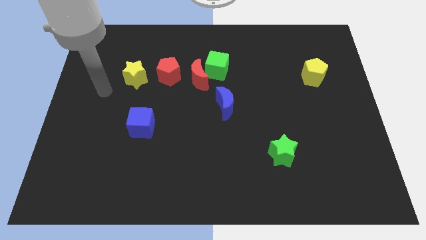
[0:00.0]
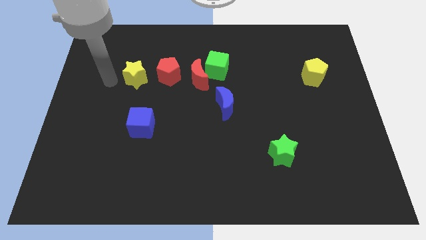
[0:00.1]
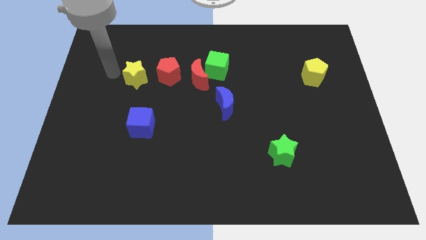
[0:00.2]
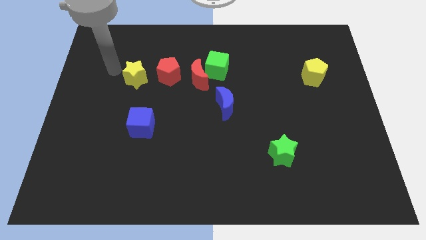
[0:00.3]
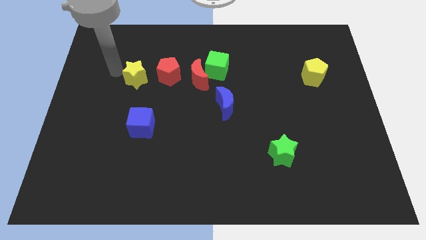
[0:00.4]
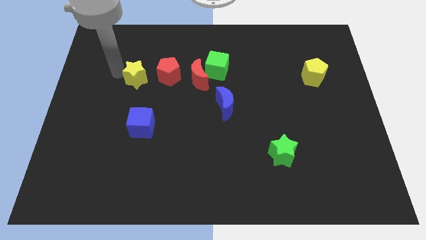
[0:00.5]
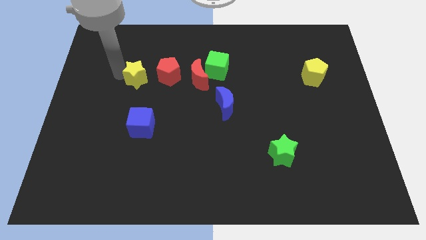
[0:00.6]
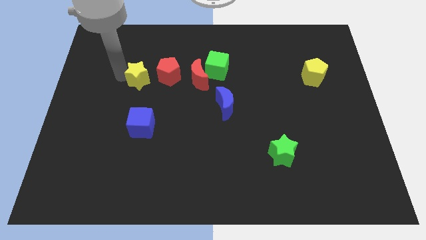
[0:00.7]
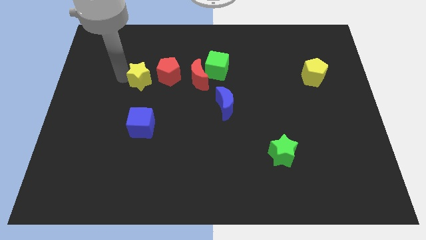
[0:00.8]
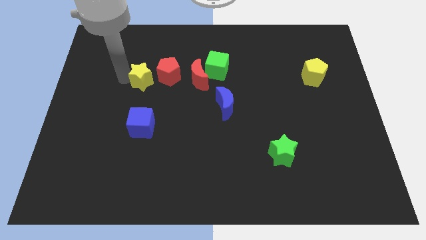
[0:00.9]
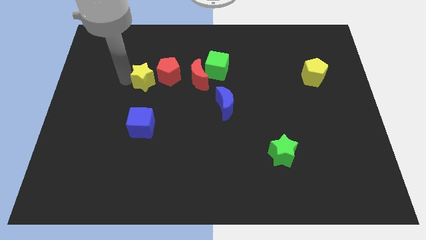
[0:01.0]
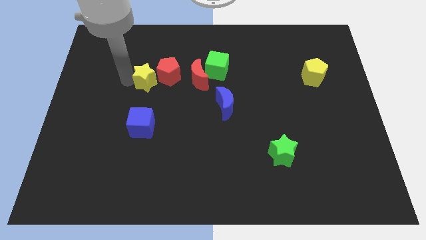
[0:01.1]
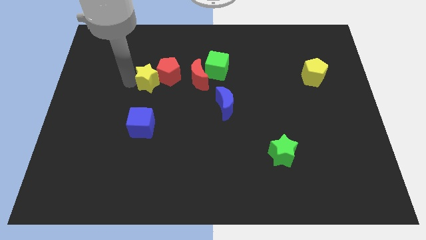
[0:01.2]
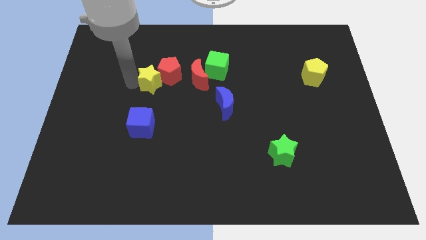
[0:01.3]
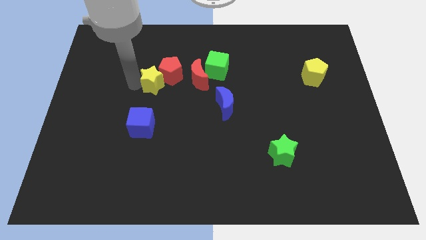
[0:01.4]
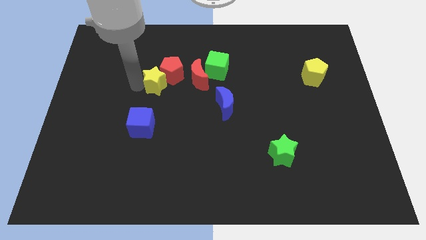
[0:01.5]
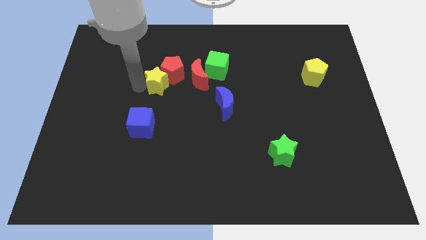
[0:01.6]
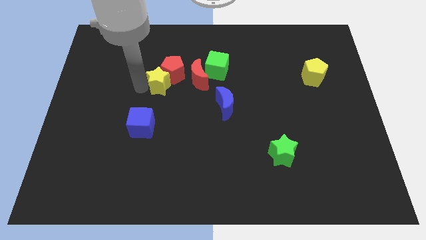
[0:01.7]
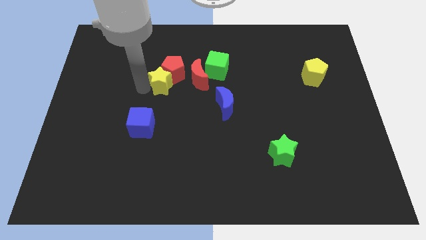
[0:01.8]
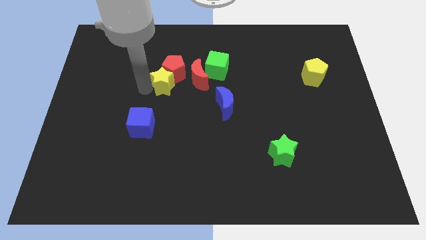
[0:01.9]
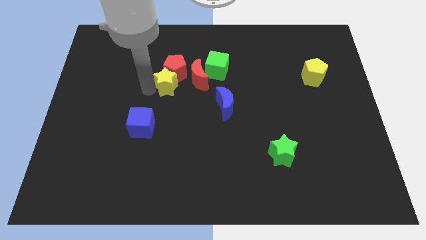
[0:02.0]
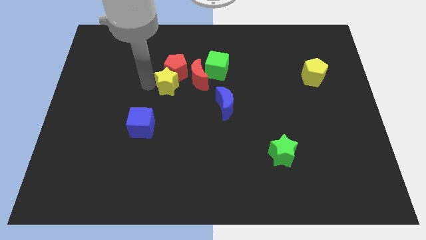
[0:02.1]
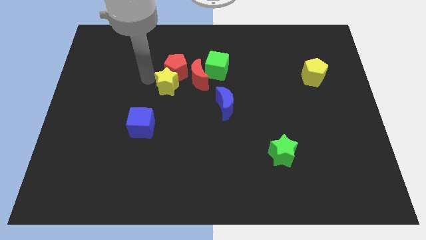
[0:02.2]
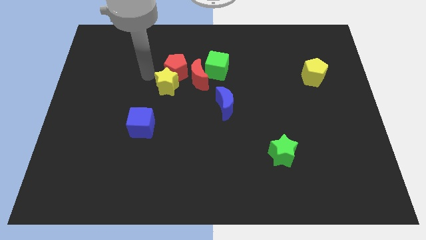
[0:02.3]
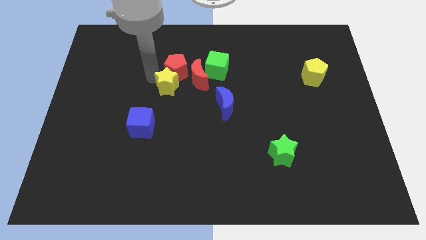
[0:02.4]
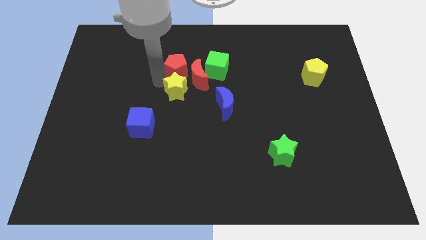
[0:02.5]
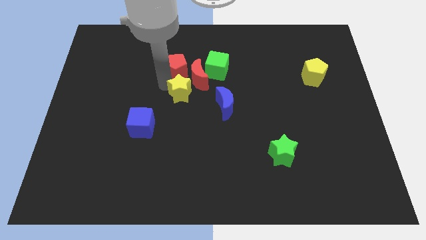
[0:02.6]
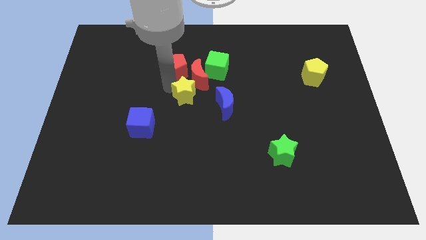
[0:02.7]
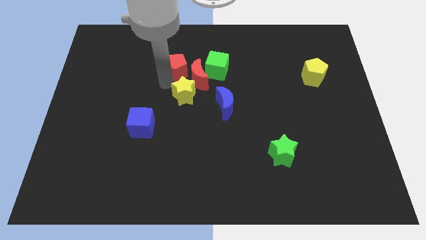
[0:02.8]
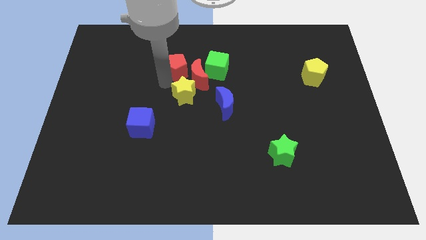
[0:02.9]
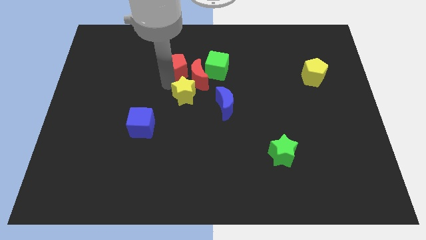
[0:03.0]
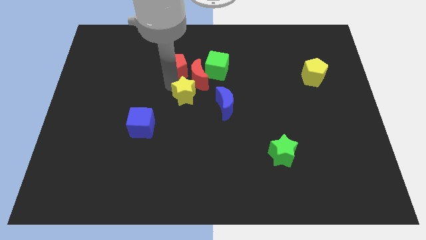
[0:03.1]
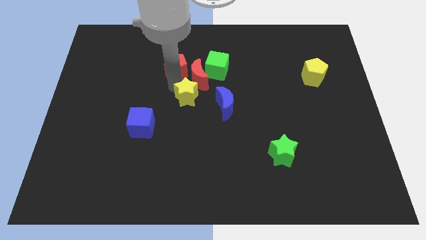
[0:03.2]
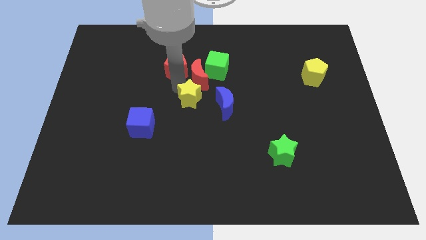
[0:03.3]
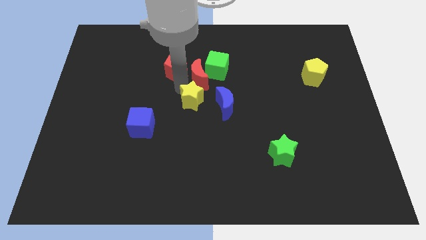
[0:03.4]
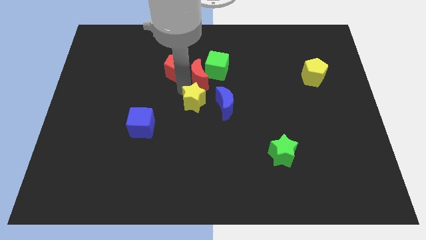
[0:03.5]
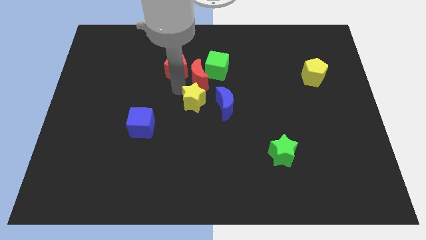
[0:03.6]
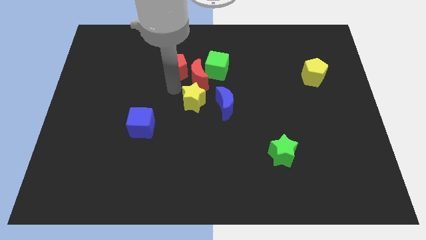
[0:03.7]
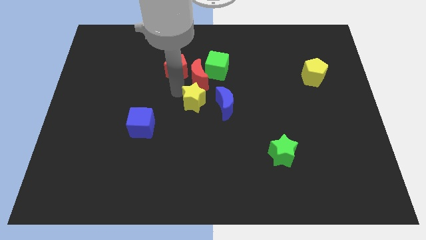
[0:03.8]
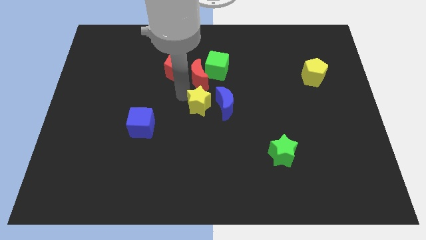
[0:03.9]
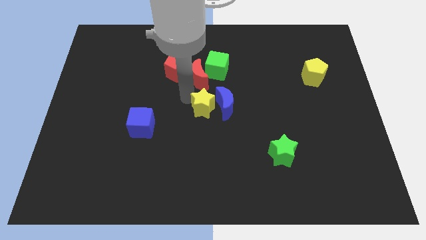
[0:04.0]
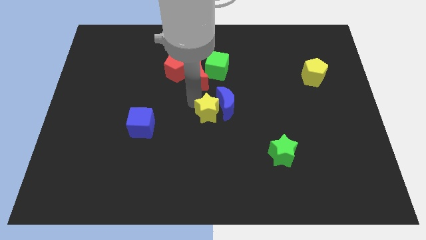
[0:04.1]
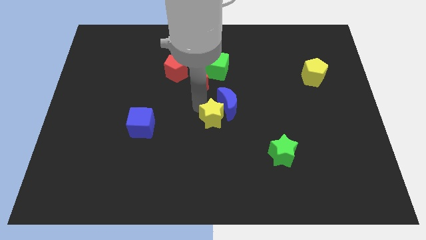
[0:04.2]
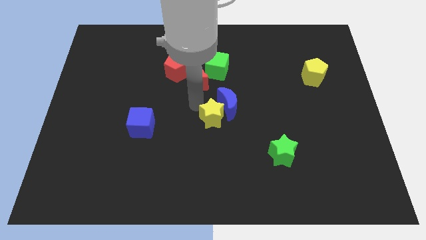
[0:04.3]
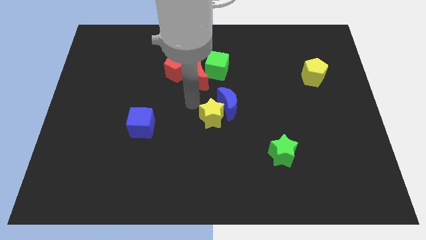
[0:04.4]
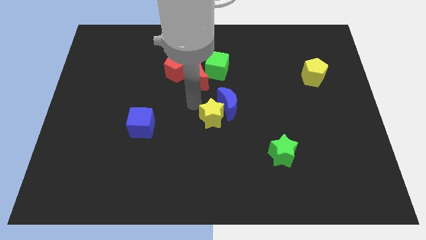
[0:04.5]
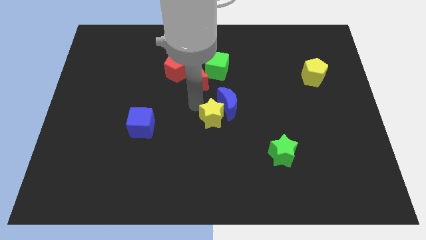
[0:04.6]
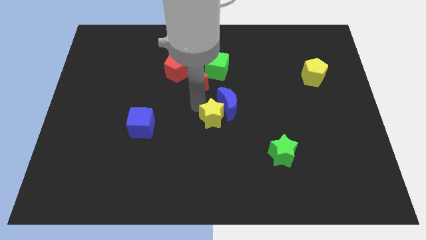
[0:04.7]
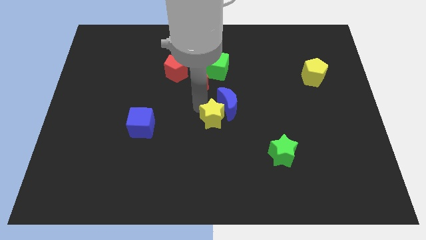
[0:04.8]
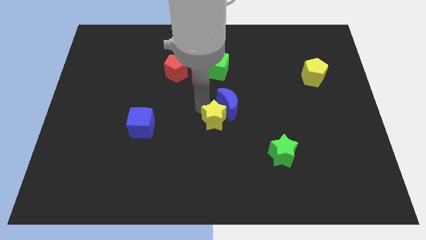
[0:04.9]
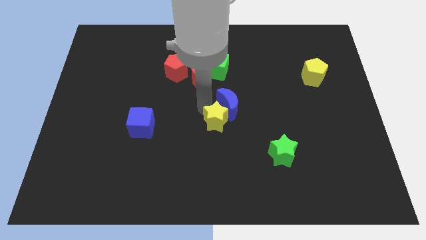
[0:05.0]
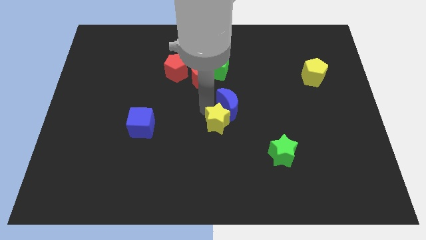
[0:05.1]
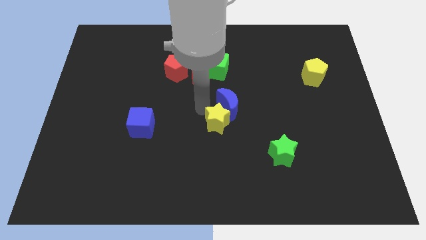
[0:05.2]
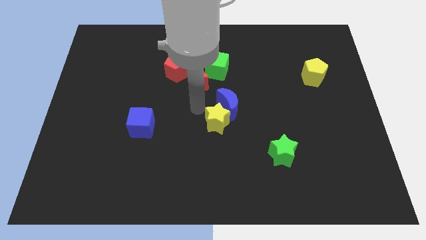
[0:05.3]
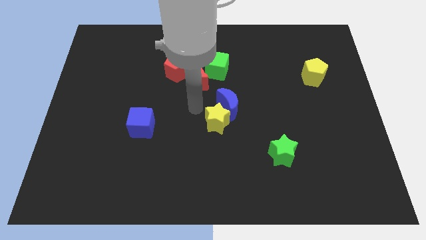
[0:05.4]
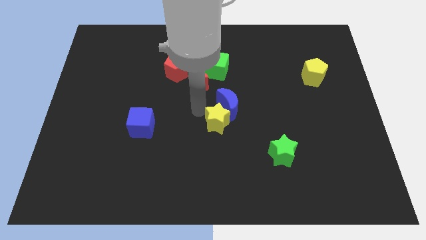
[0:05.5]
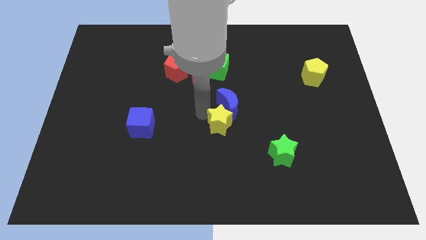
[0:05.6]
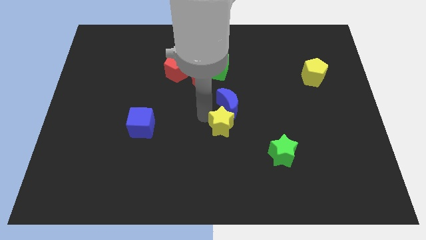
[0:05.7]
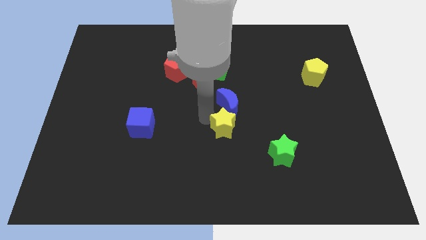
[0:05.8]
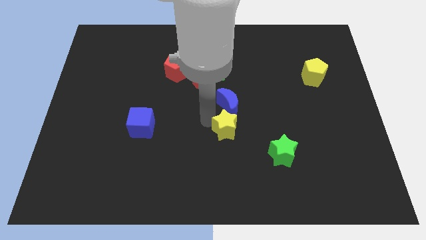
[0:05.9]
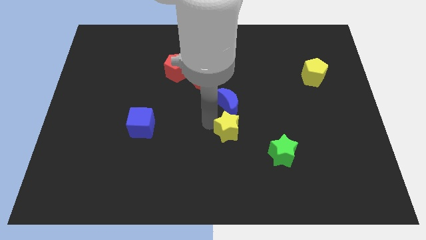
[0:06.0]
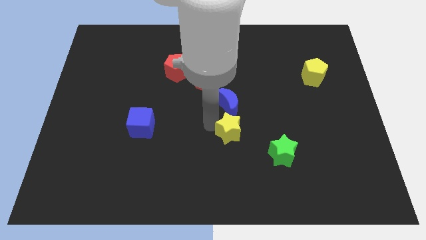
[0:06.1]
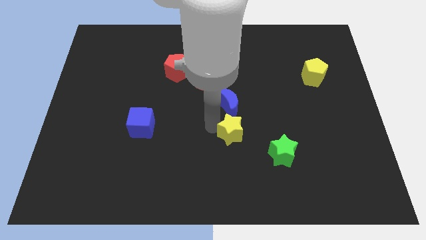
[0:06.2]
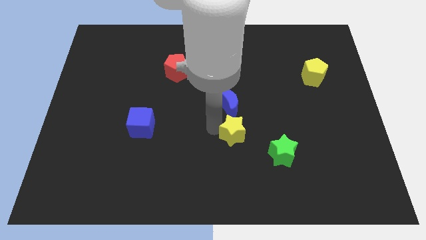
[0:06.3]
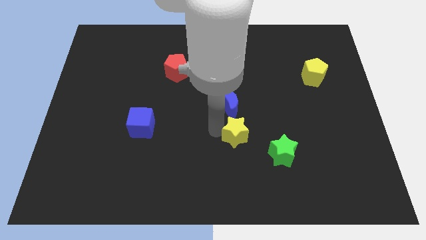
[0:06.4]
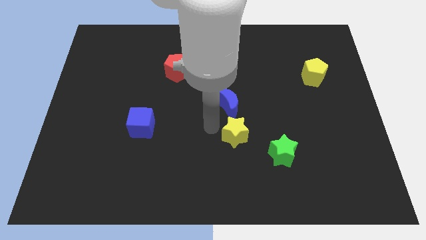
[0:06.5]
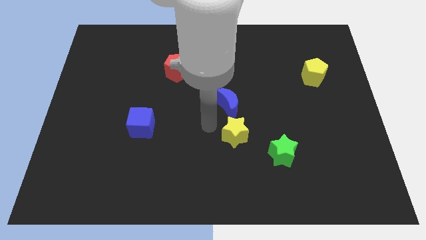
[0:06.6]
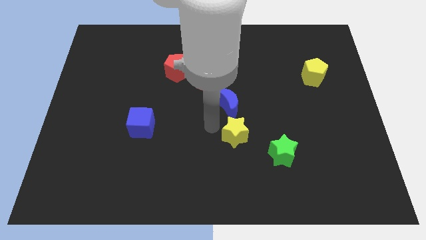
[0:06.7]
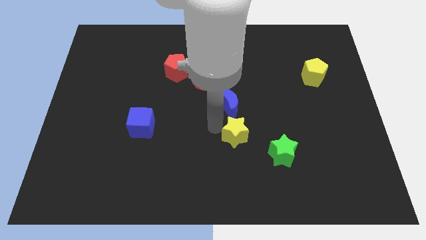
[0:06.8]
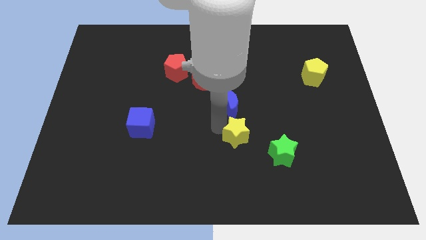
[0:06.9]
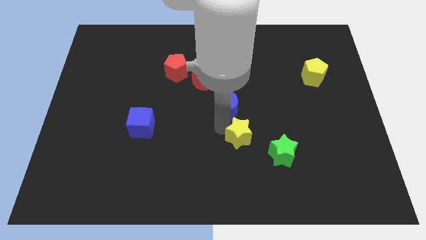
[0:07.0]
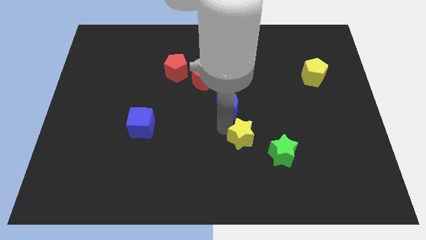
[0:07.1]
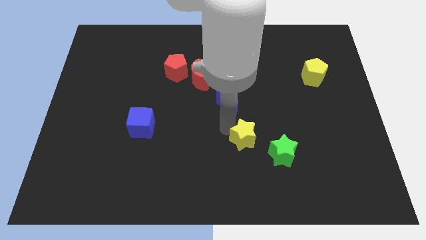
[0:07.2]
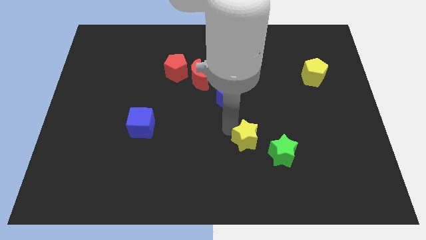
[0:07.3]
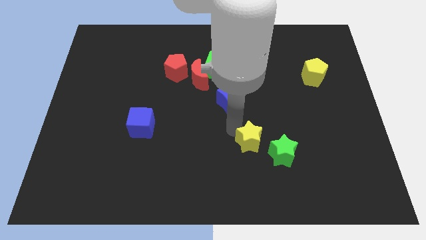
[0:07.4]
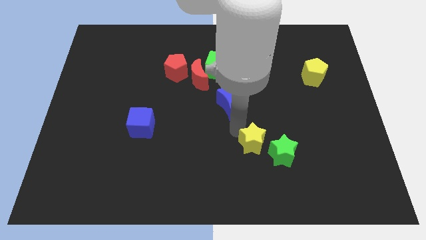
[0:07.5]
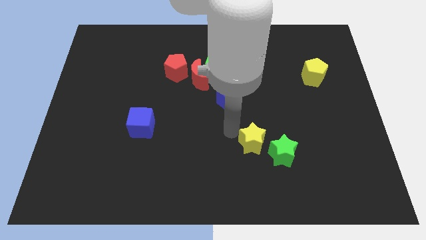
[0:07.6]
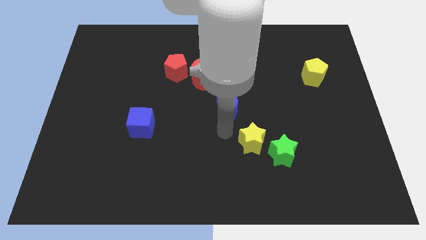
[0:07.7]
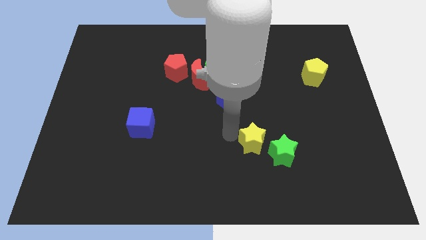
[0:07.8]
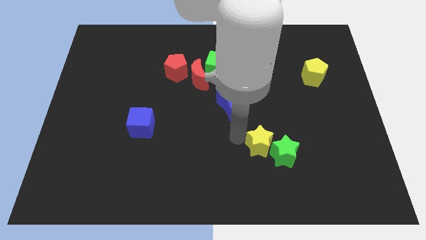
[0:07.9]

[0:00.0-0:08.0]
move the yellow star next to the green star

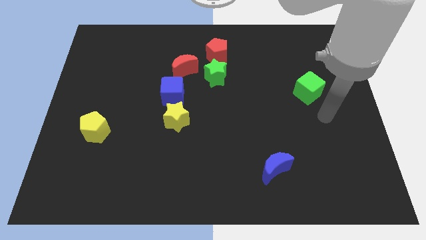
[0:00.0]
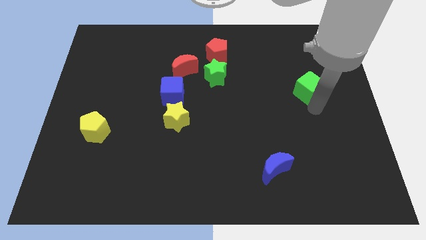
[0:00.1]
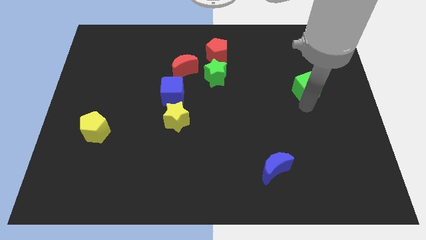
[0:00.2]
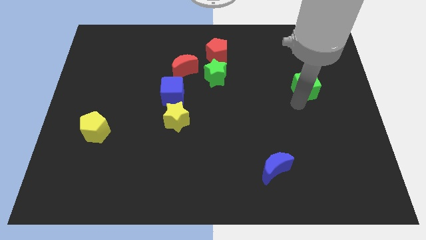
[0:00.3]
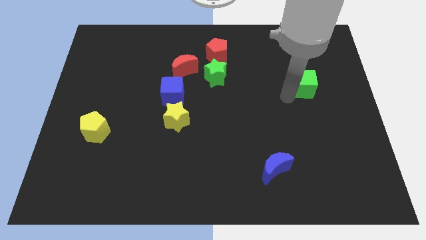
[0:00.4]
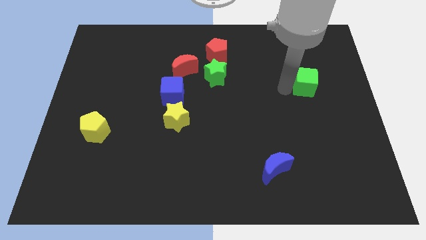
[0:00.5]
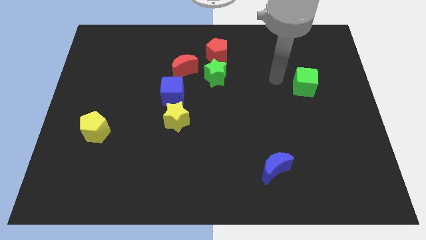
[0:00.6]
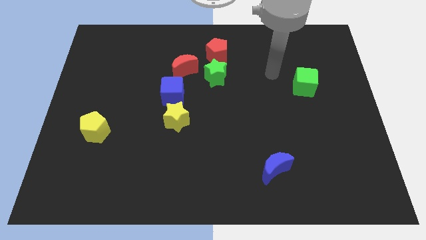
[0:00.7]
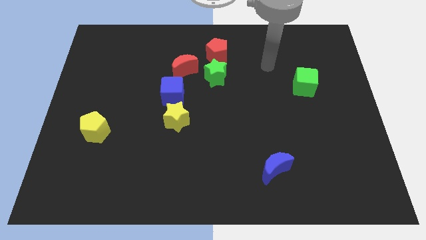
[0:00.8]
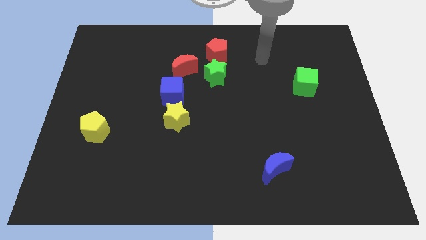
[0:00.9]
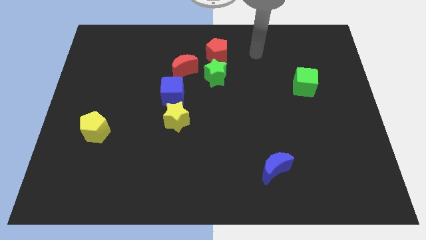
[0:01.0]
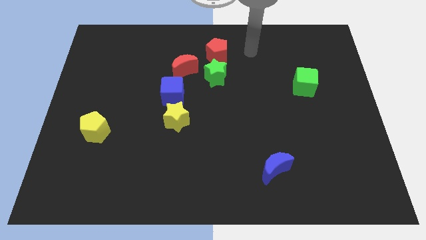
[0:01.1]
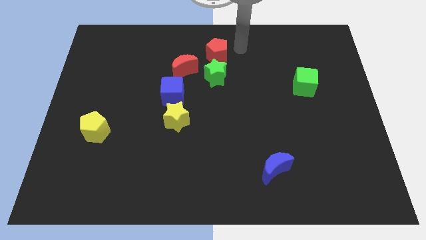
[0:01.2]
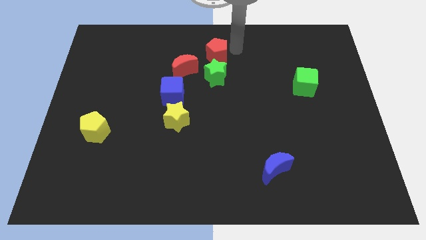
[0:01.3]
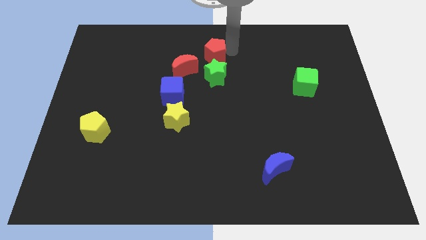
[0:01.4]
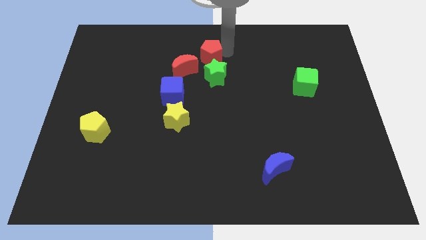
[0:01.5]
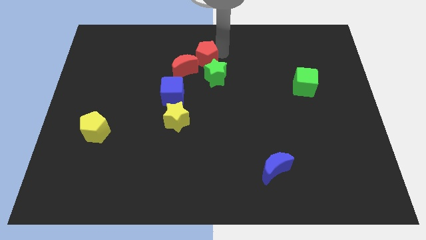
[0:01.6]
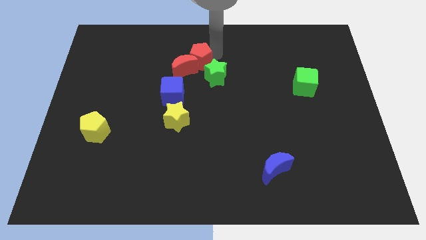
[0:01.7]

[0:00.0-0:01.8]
slide the red pentagon to the red moon
